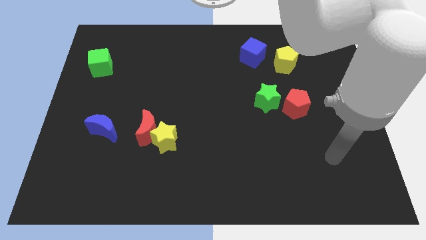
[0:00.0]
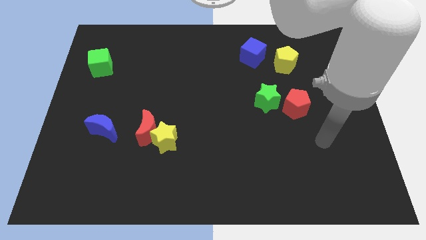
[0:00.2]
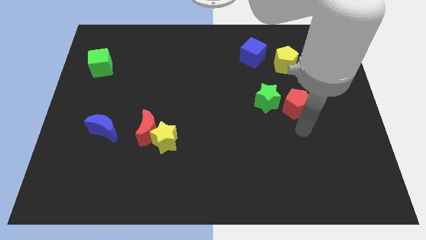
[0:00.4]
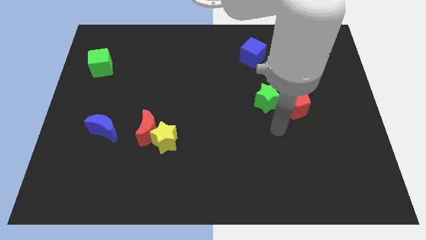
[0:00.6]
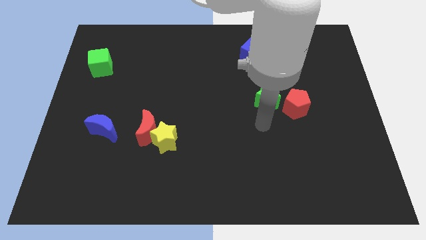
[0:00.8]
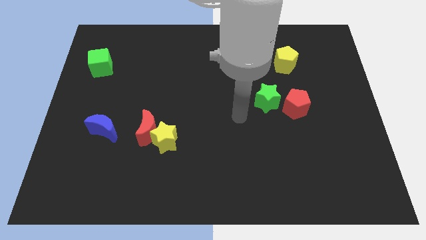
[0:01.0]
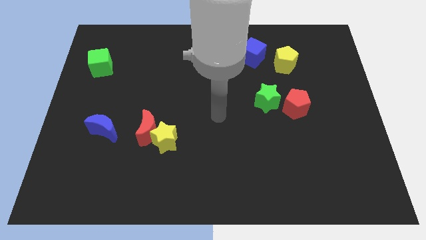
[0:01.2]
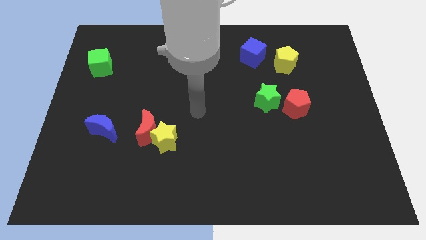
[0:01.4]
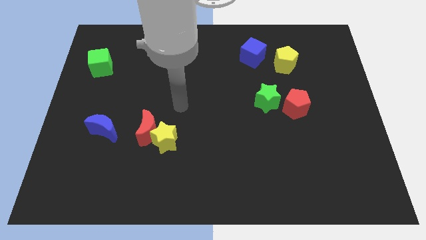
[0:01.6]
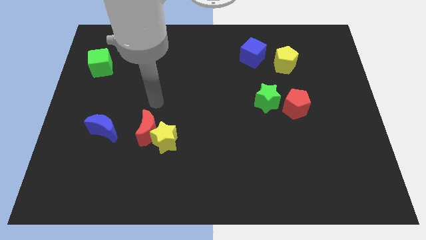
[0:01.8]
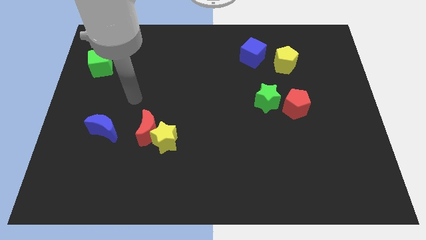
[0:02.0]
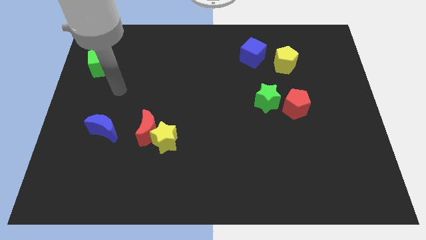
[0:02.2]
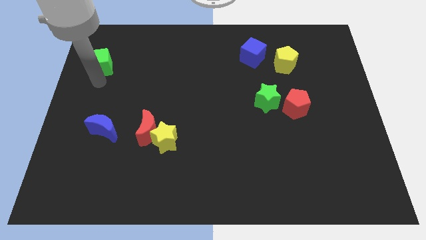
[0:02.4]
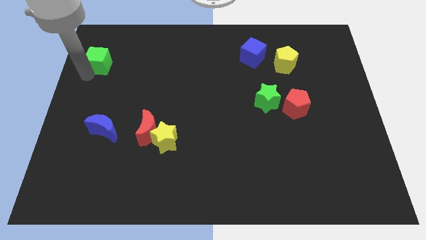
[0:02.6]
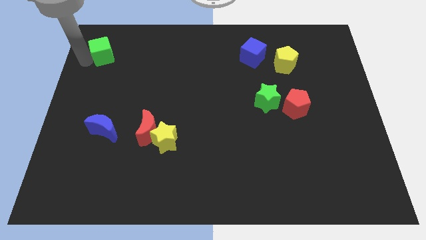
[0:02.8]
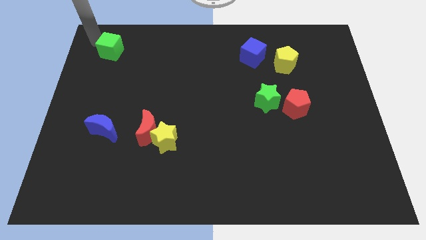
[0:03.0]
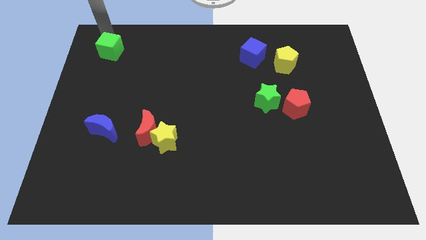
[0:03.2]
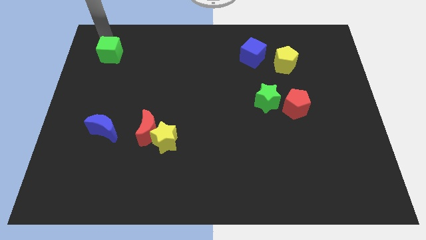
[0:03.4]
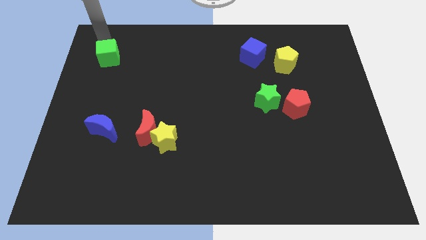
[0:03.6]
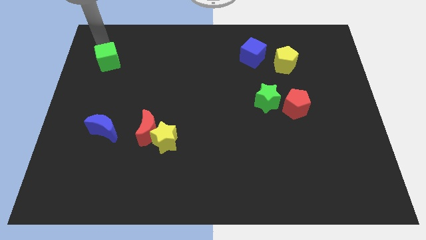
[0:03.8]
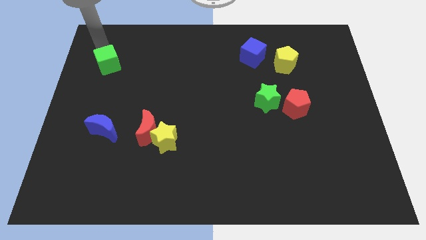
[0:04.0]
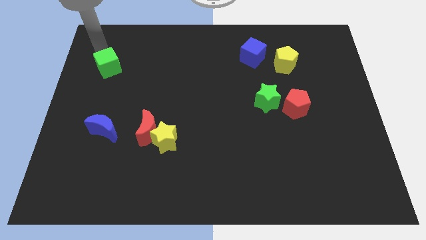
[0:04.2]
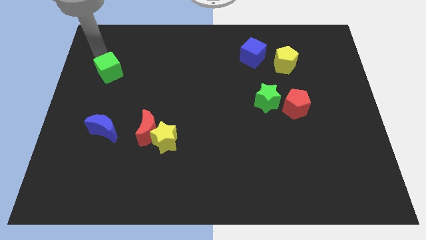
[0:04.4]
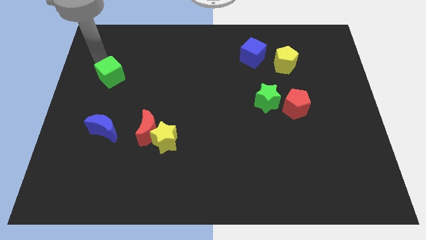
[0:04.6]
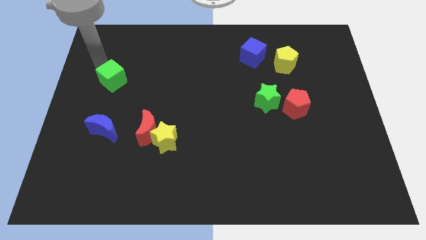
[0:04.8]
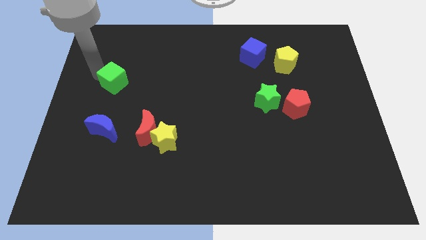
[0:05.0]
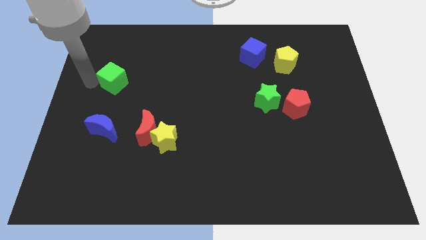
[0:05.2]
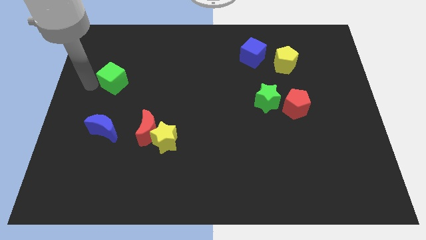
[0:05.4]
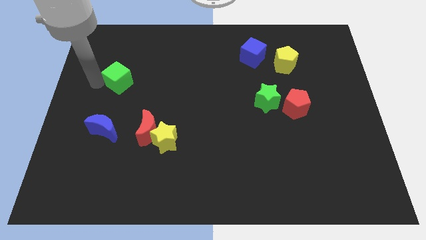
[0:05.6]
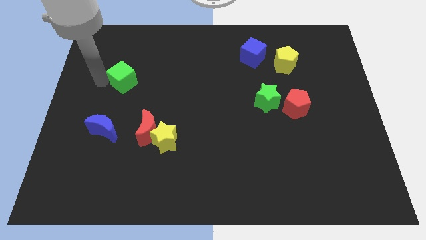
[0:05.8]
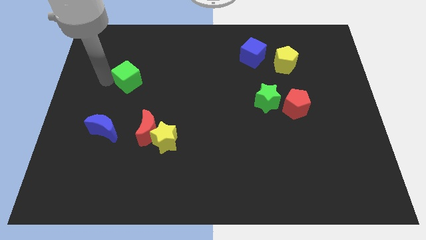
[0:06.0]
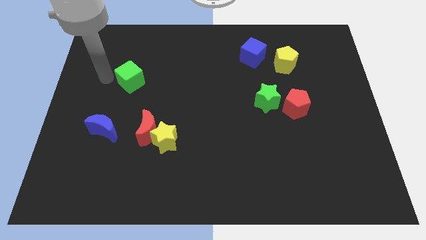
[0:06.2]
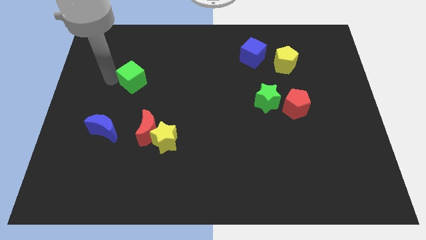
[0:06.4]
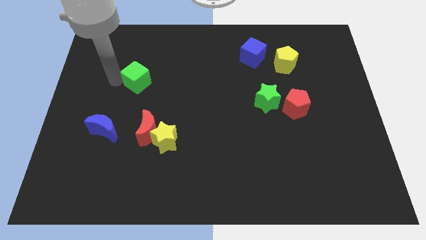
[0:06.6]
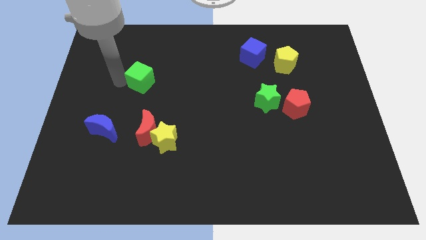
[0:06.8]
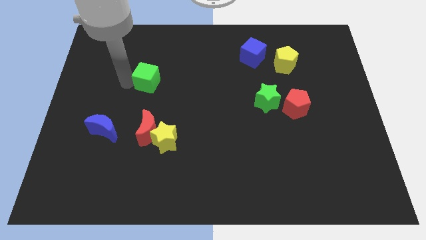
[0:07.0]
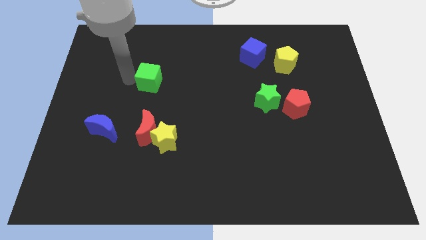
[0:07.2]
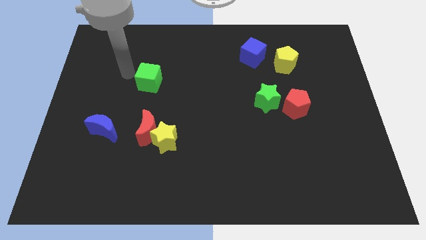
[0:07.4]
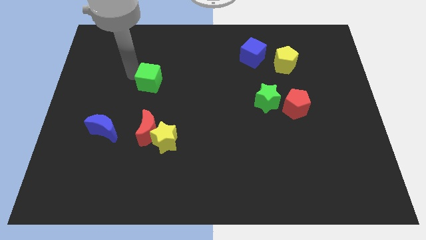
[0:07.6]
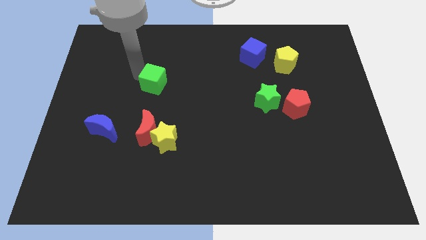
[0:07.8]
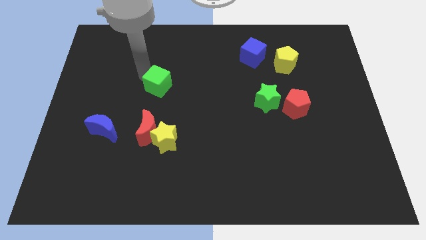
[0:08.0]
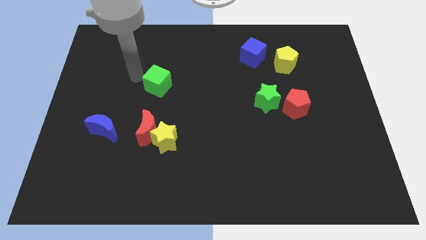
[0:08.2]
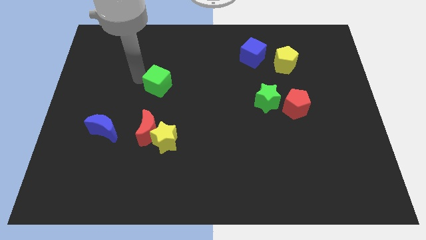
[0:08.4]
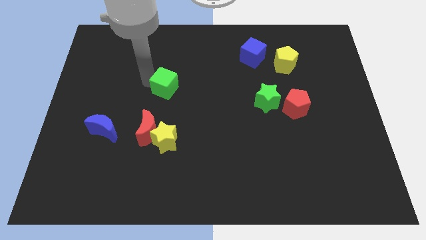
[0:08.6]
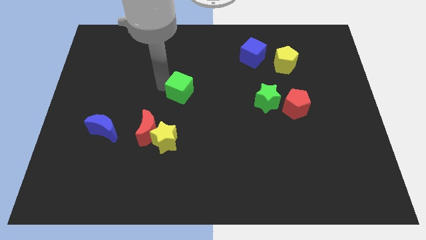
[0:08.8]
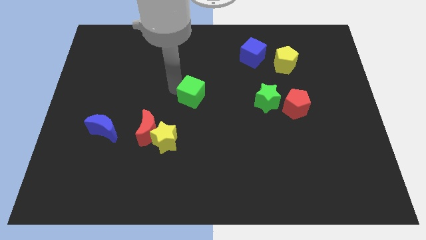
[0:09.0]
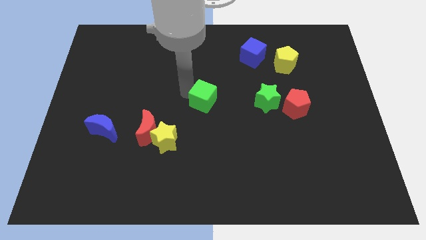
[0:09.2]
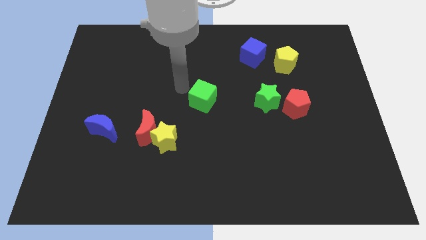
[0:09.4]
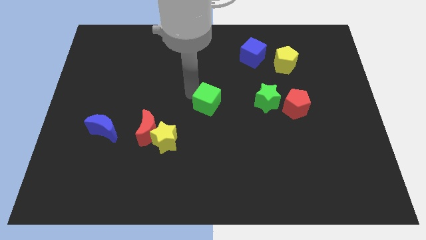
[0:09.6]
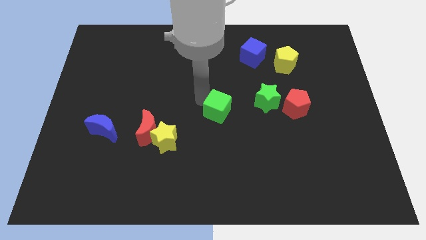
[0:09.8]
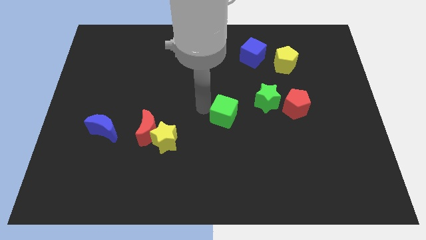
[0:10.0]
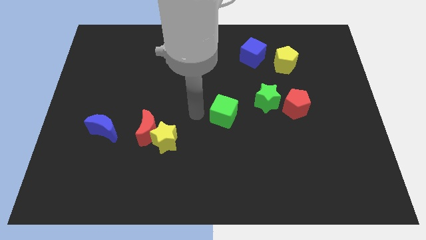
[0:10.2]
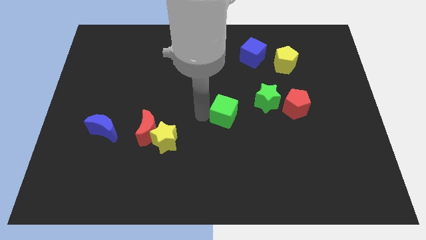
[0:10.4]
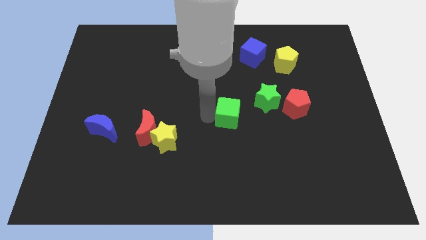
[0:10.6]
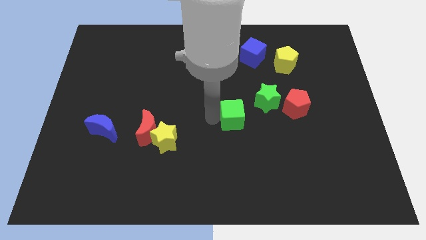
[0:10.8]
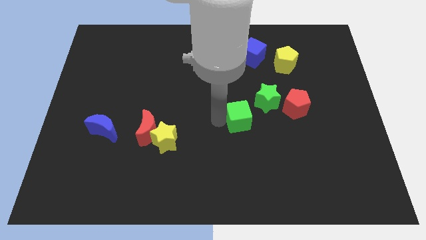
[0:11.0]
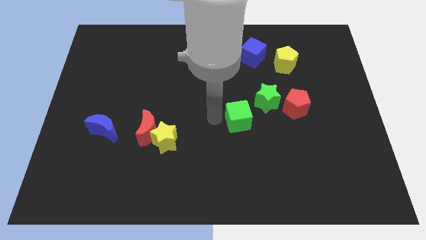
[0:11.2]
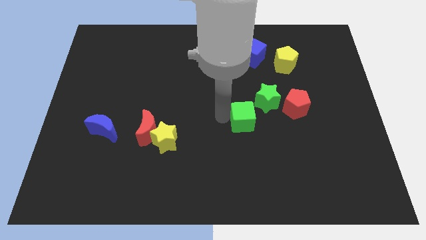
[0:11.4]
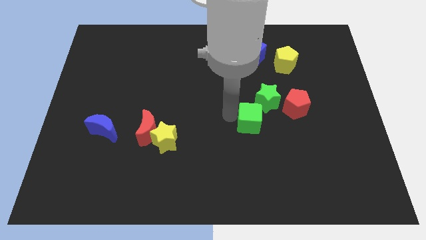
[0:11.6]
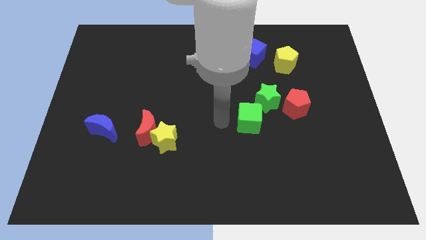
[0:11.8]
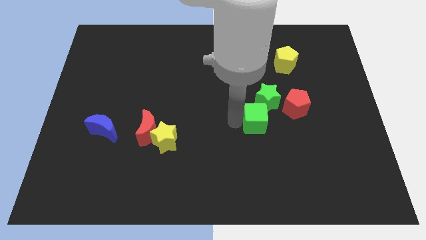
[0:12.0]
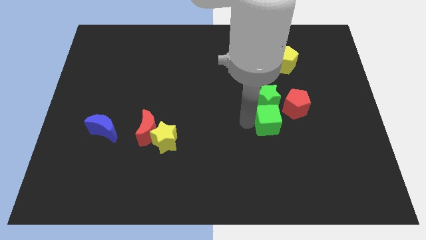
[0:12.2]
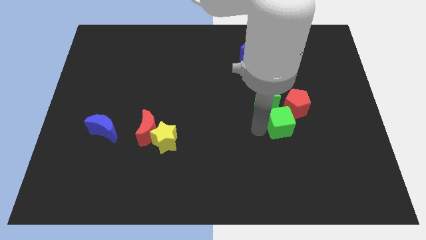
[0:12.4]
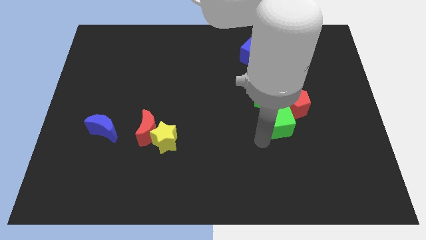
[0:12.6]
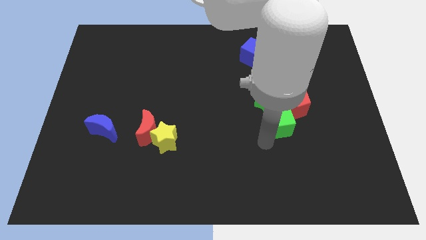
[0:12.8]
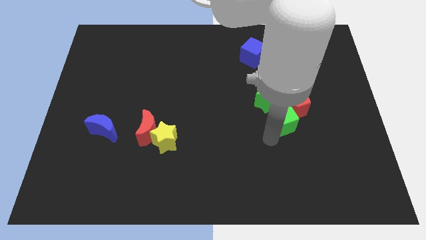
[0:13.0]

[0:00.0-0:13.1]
move the green cube close to the red pentagon
